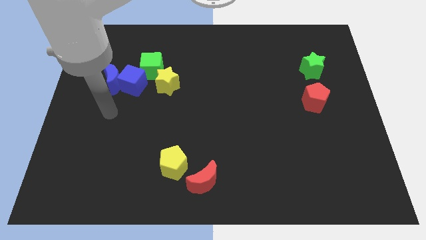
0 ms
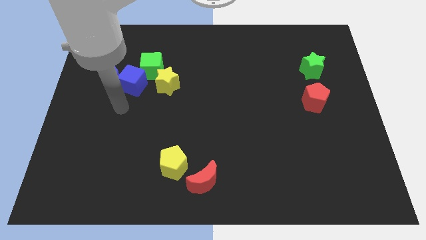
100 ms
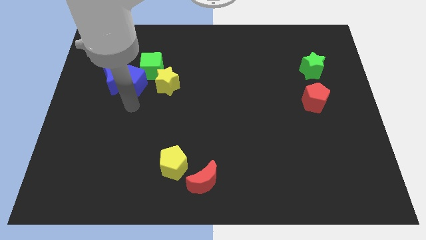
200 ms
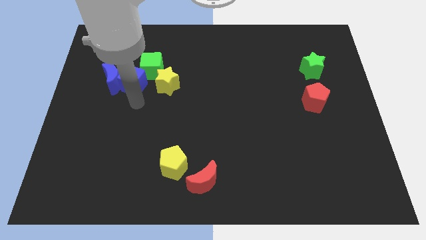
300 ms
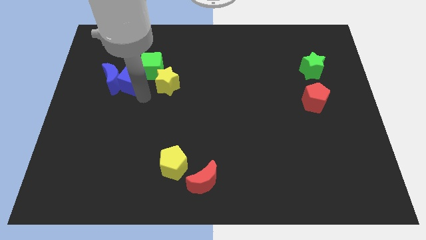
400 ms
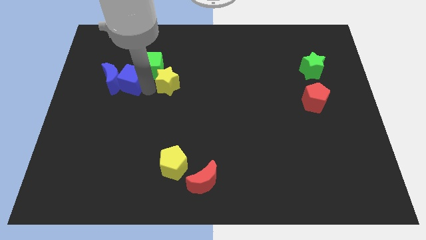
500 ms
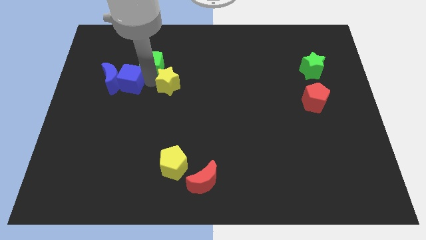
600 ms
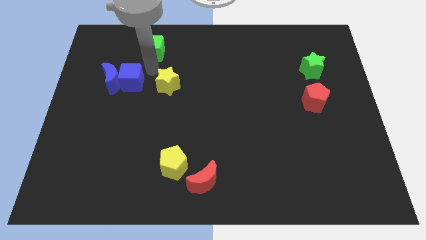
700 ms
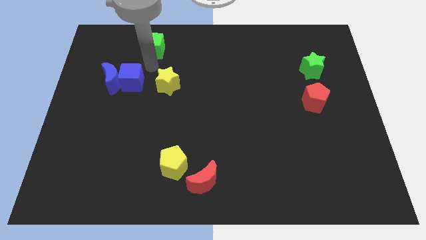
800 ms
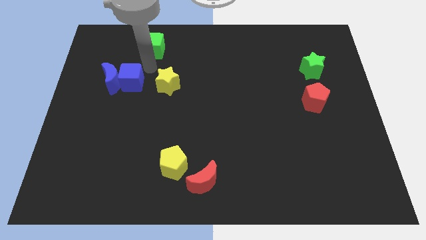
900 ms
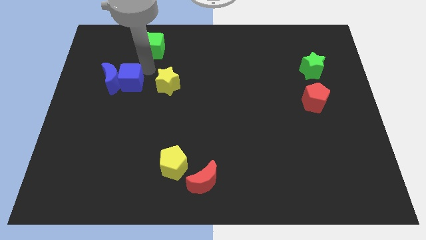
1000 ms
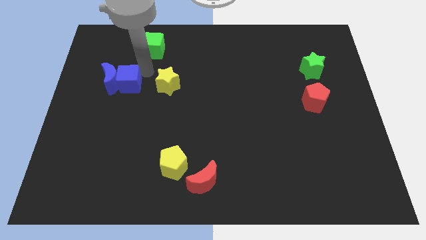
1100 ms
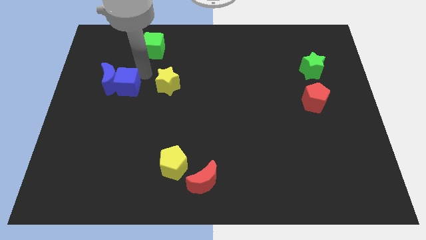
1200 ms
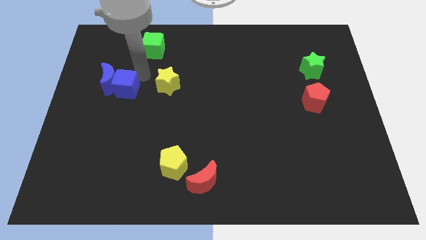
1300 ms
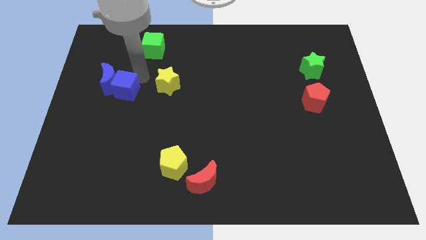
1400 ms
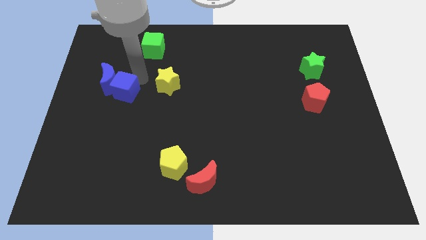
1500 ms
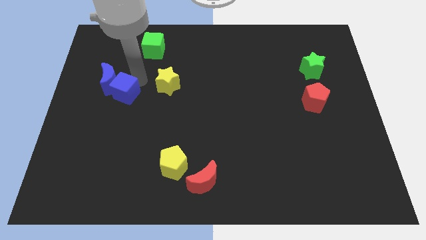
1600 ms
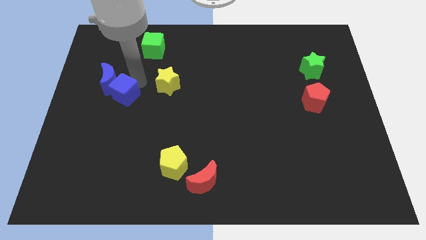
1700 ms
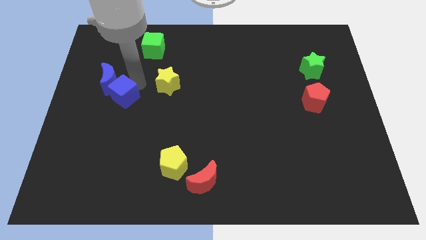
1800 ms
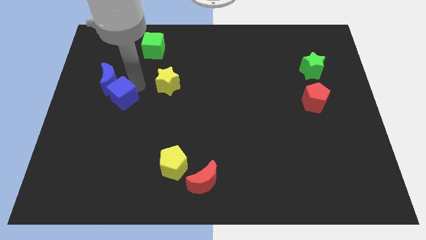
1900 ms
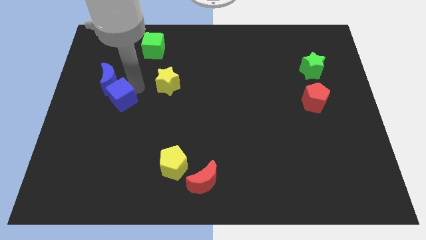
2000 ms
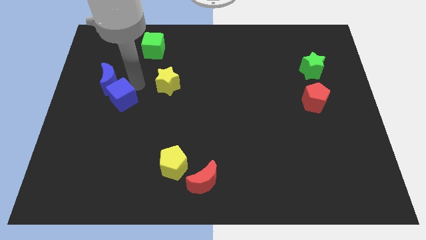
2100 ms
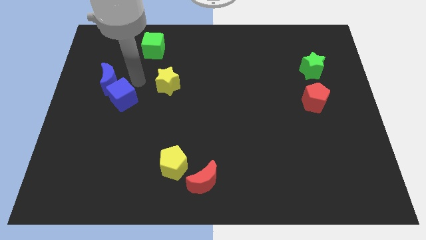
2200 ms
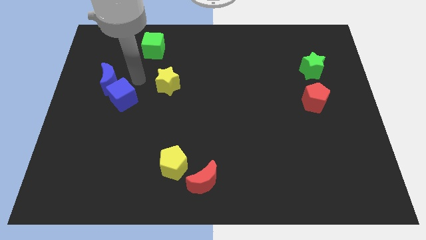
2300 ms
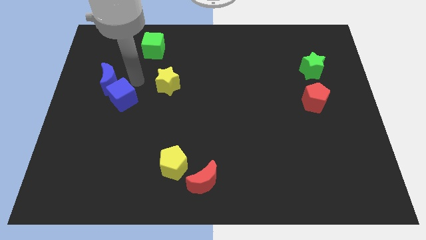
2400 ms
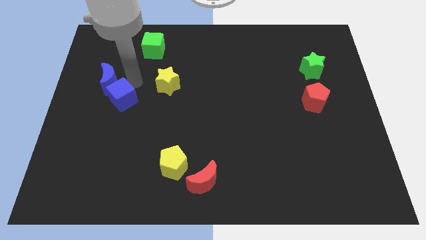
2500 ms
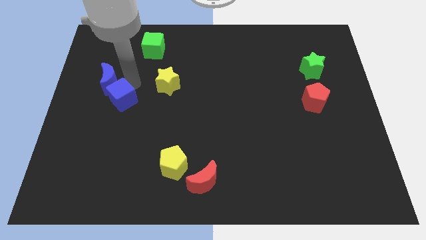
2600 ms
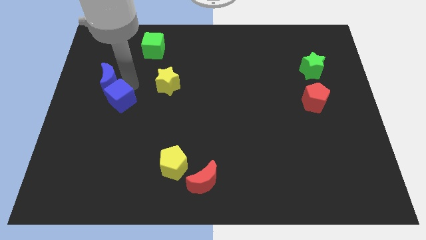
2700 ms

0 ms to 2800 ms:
separate the blue cube from the blue moon, green cube, and yellow star

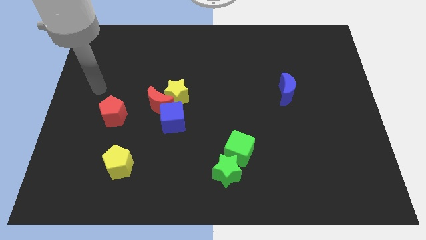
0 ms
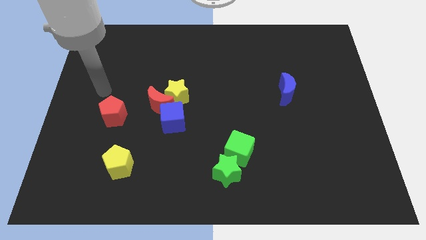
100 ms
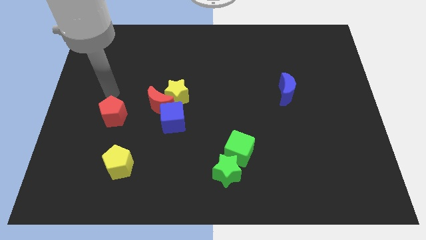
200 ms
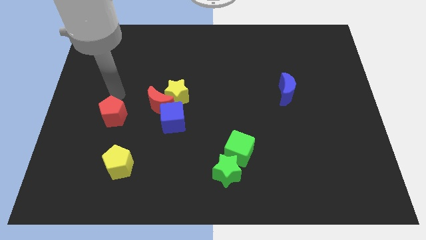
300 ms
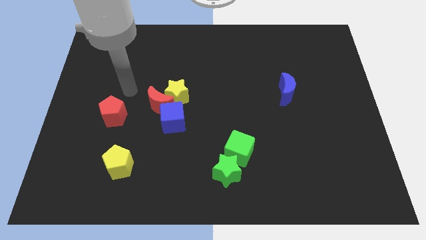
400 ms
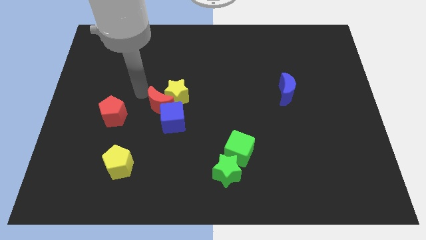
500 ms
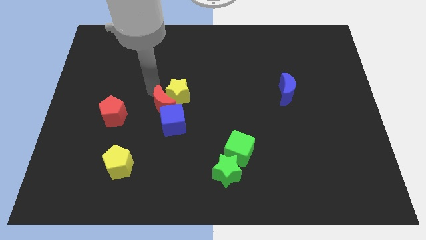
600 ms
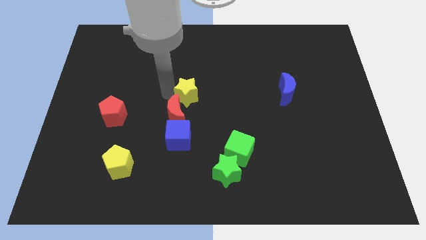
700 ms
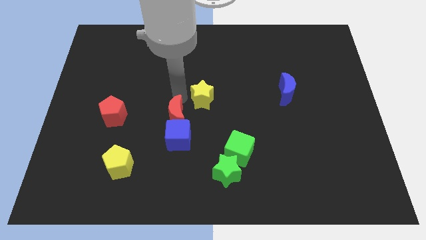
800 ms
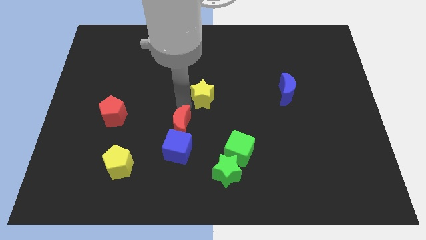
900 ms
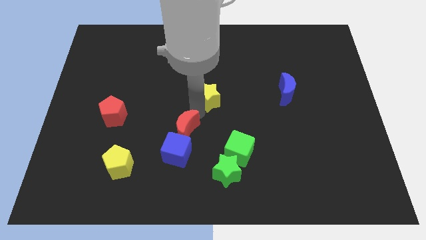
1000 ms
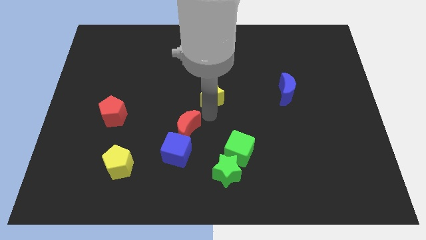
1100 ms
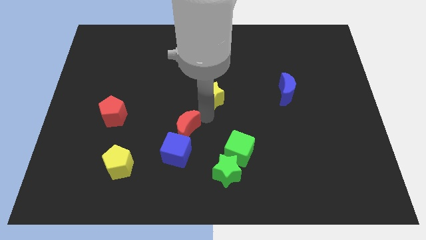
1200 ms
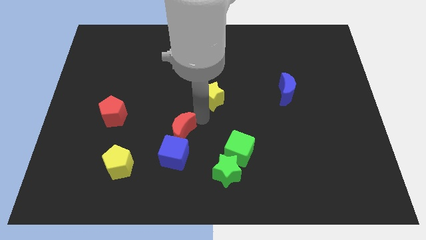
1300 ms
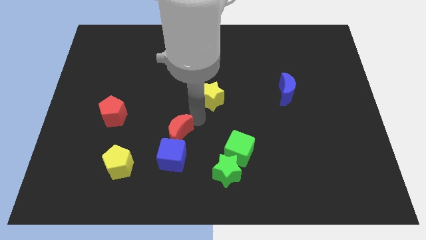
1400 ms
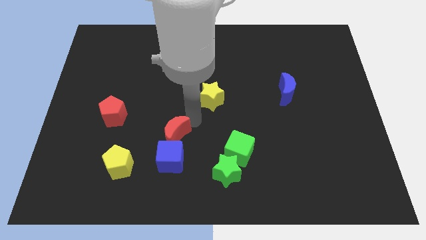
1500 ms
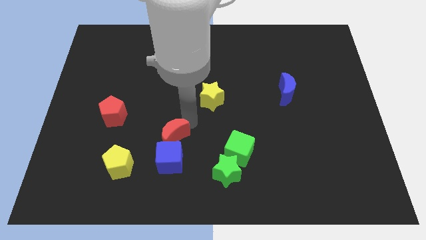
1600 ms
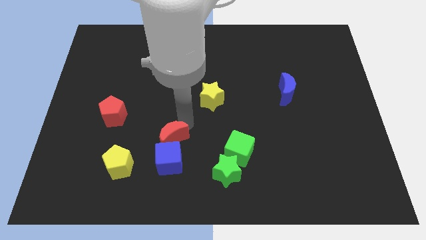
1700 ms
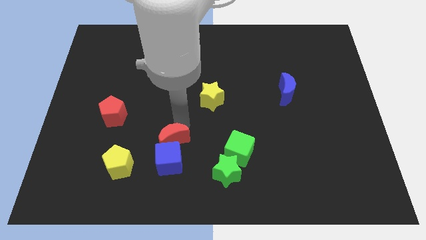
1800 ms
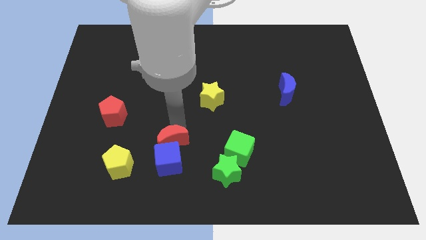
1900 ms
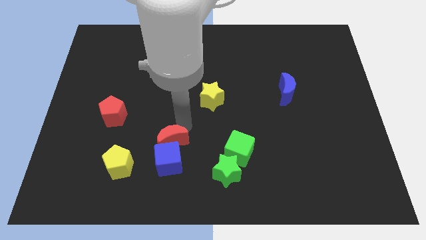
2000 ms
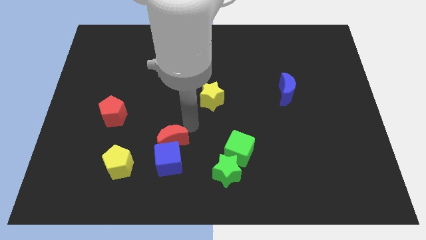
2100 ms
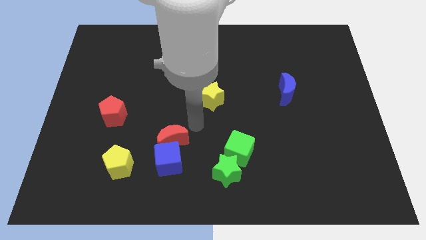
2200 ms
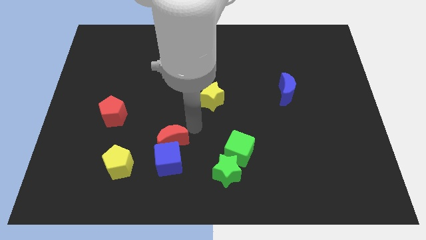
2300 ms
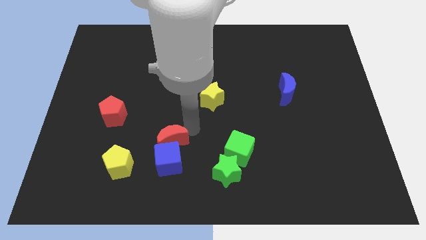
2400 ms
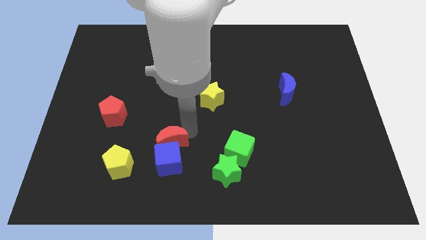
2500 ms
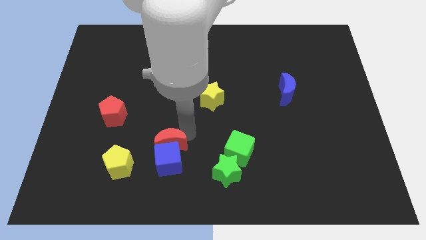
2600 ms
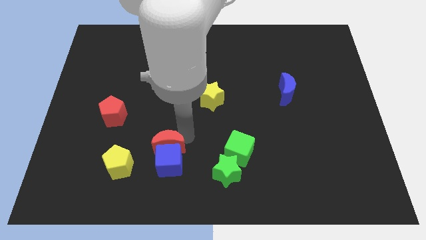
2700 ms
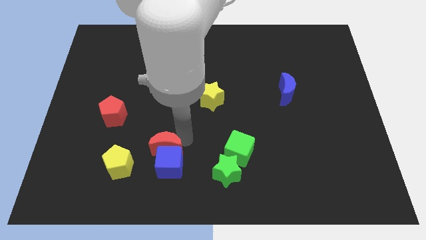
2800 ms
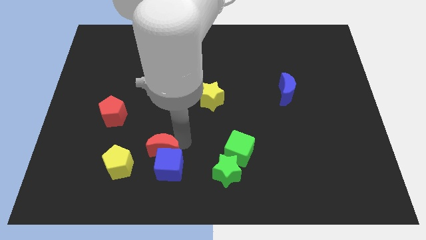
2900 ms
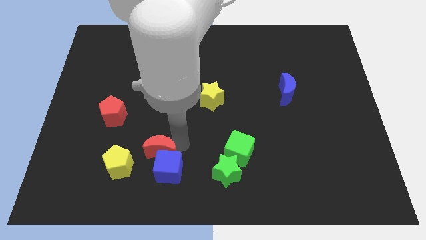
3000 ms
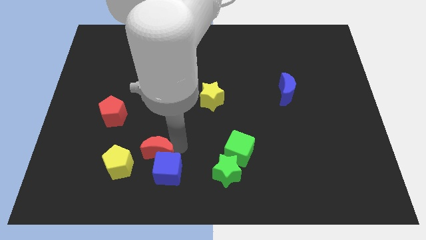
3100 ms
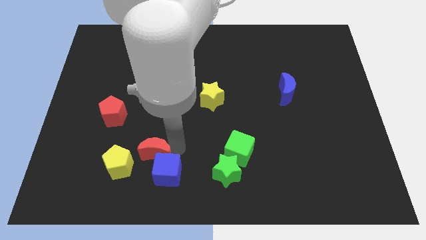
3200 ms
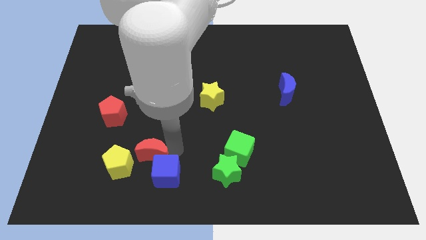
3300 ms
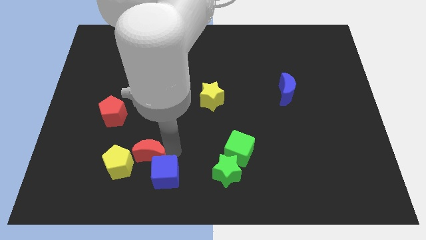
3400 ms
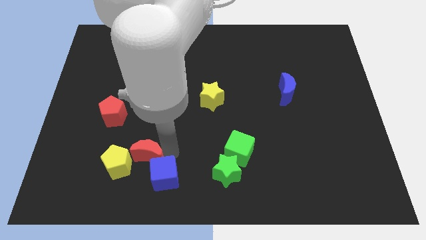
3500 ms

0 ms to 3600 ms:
pull the red moon apart from the yellow star and blue cube

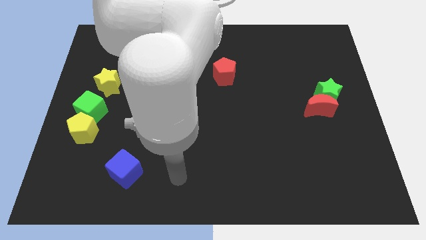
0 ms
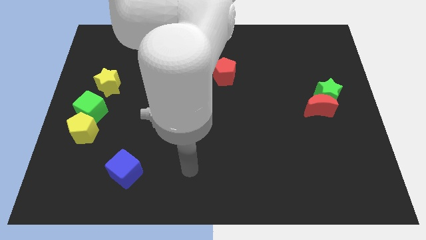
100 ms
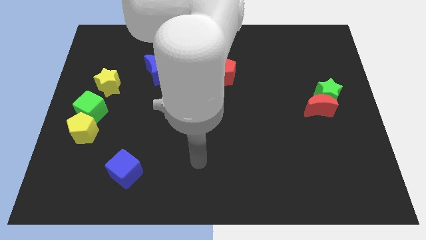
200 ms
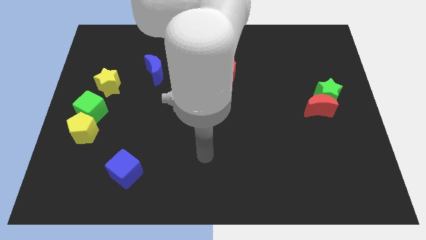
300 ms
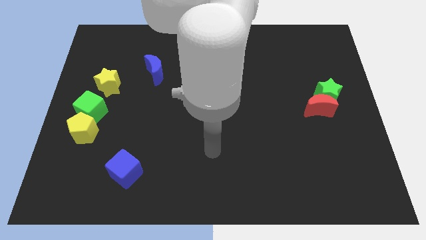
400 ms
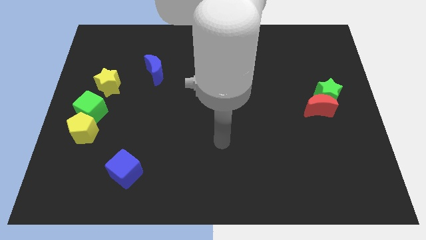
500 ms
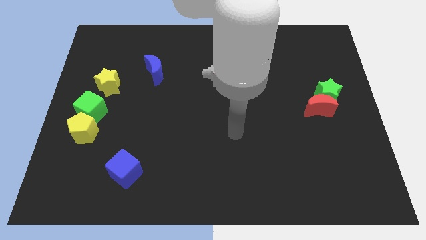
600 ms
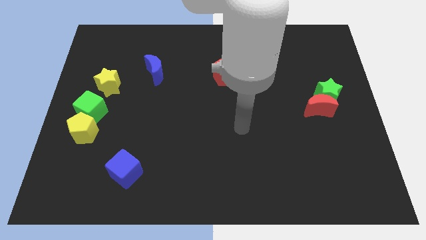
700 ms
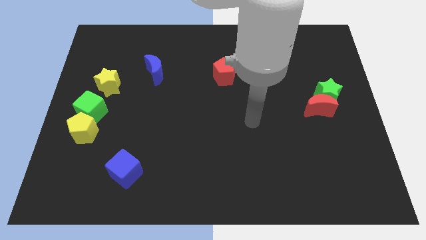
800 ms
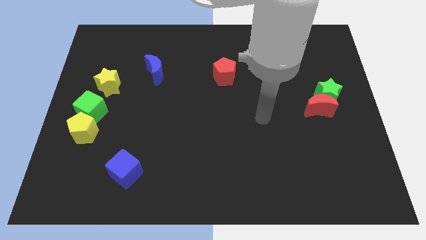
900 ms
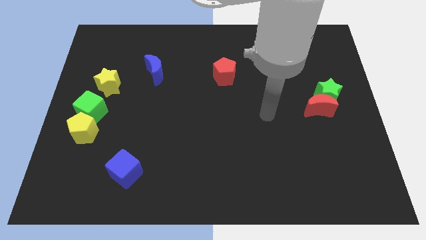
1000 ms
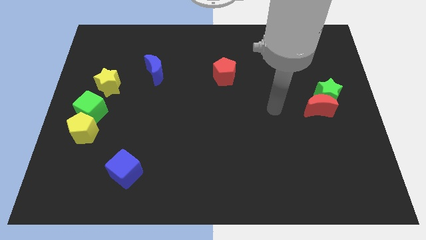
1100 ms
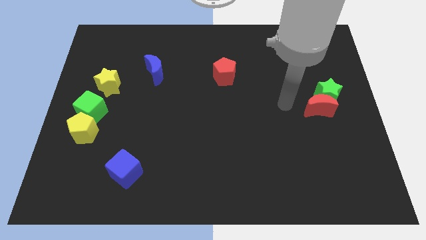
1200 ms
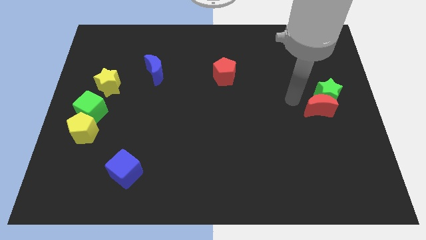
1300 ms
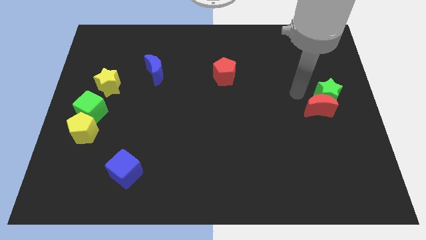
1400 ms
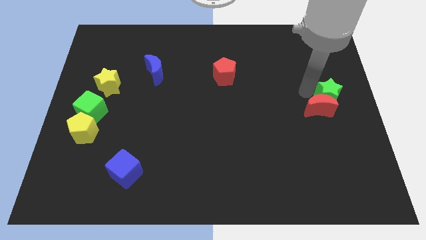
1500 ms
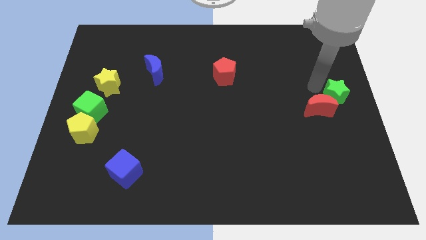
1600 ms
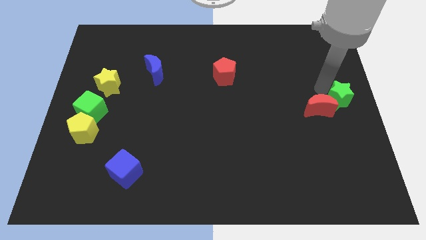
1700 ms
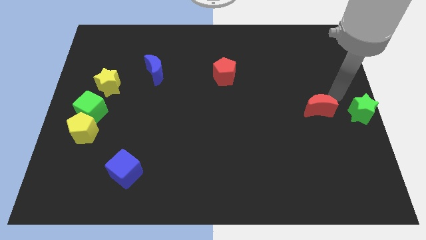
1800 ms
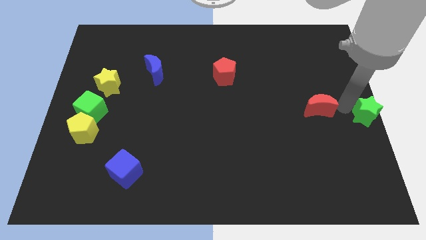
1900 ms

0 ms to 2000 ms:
separate the red moon from the green star

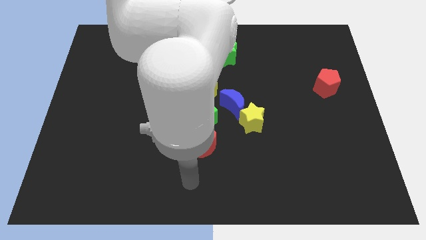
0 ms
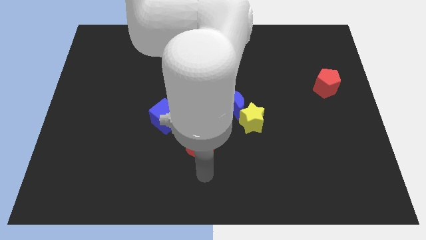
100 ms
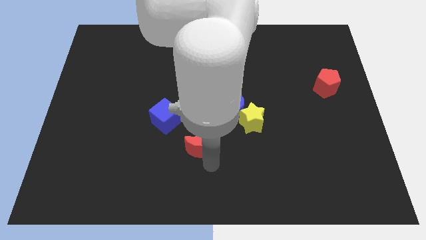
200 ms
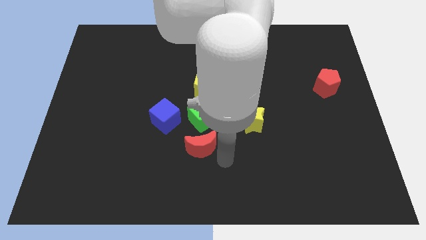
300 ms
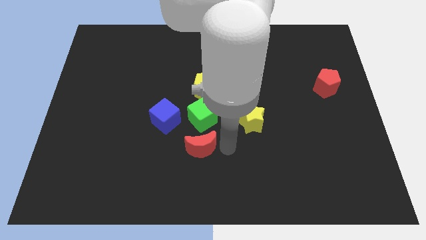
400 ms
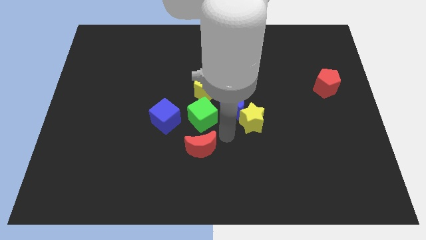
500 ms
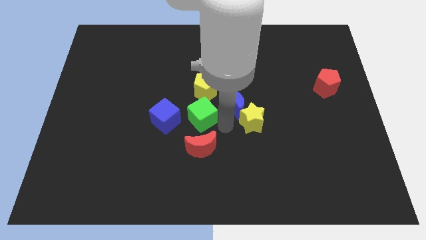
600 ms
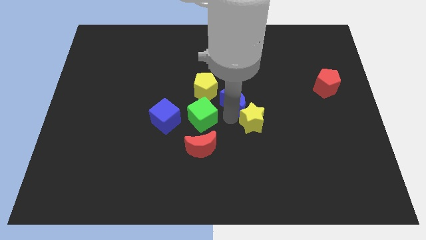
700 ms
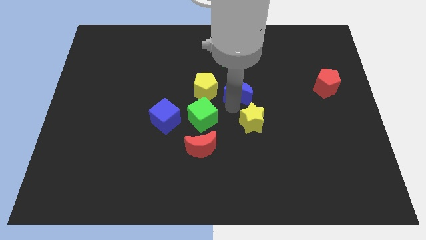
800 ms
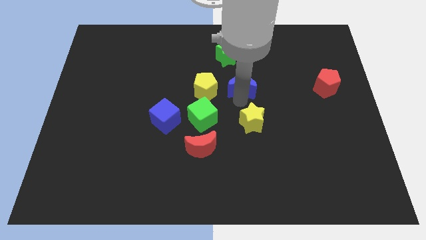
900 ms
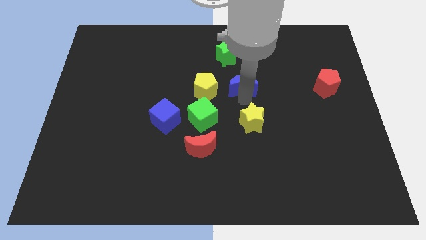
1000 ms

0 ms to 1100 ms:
move the yellow star away from the blue moon
